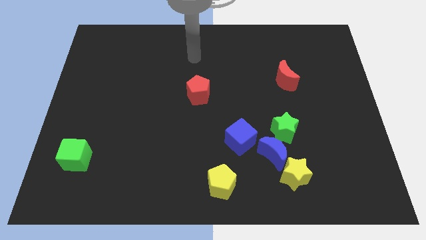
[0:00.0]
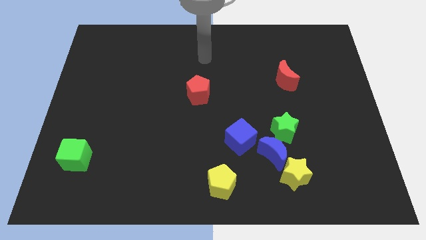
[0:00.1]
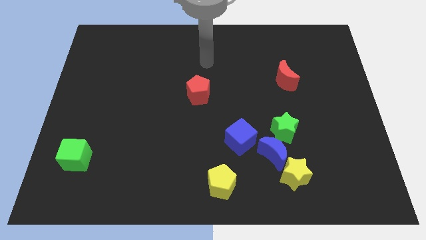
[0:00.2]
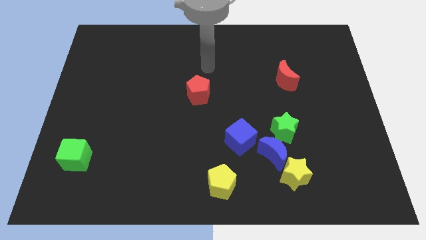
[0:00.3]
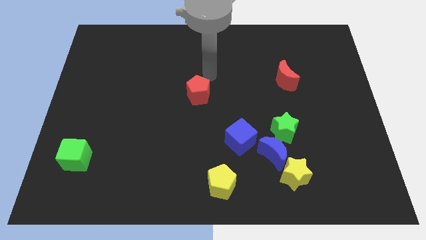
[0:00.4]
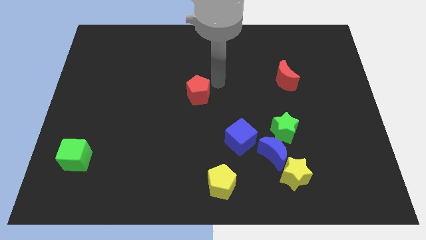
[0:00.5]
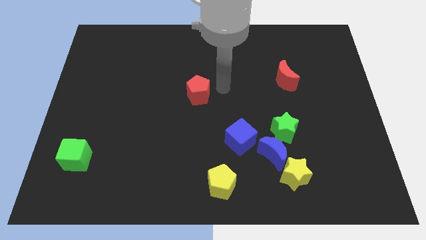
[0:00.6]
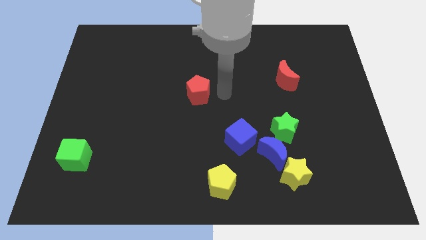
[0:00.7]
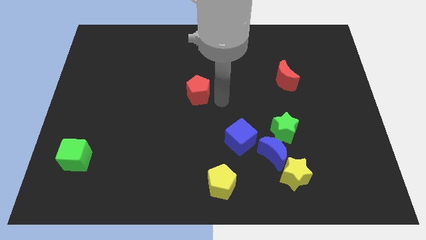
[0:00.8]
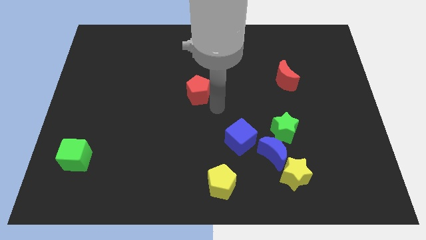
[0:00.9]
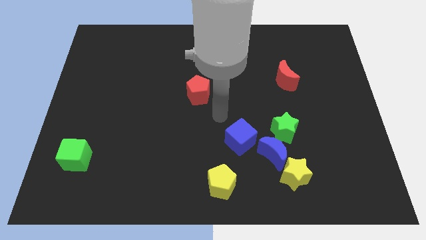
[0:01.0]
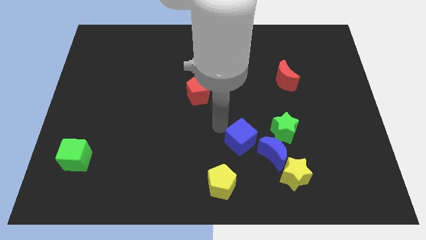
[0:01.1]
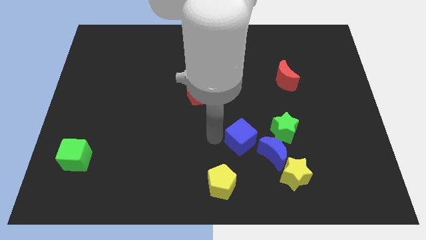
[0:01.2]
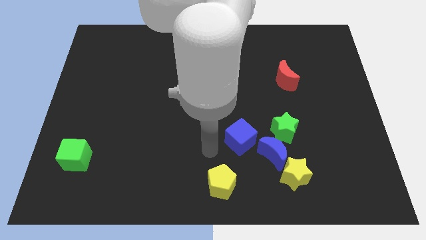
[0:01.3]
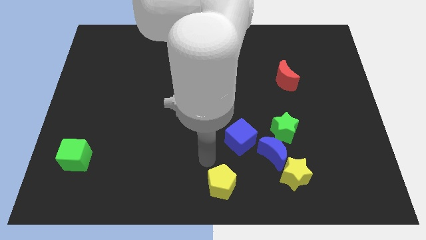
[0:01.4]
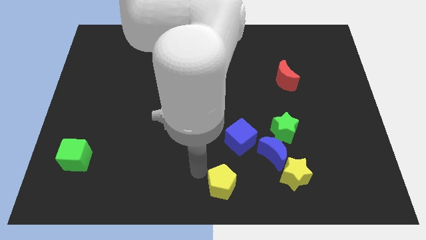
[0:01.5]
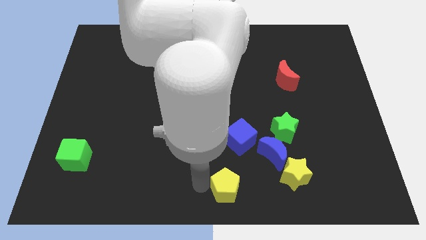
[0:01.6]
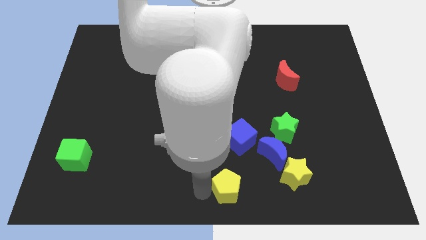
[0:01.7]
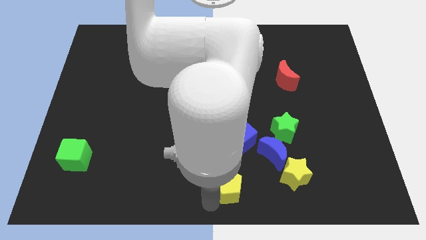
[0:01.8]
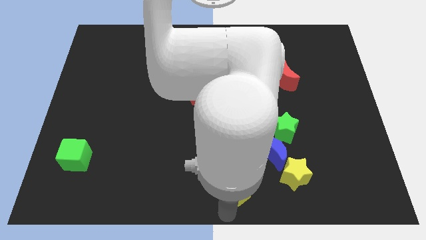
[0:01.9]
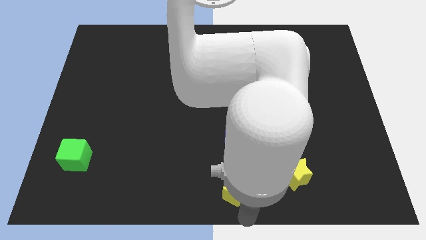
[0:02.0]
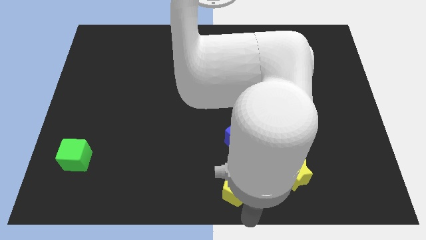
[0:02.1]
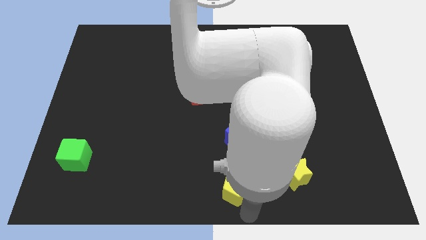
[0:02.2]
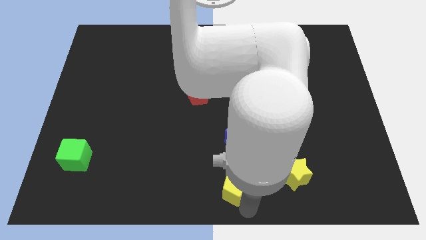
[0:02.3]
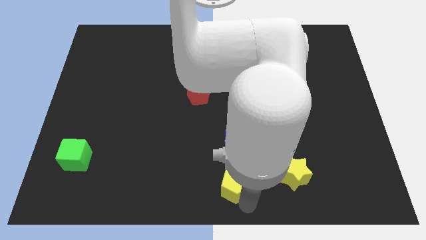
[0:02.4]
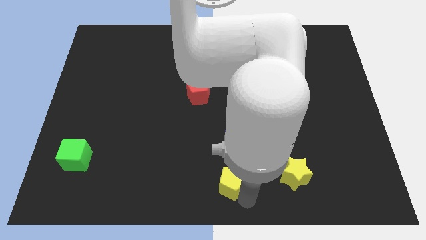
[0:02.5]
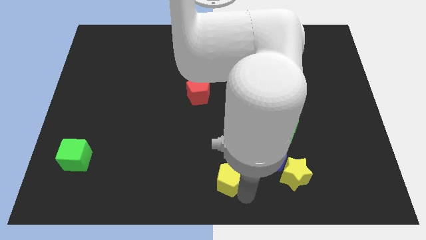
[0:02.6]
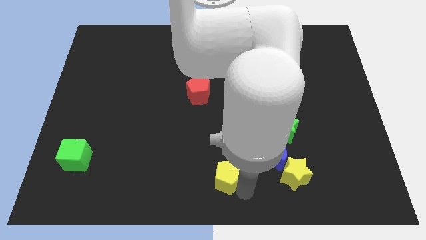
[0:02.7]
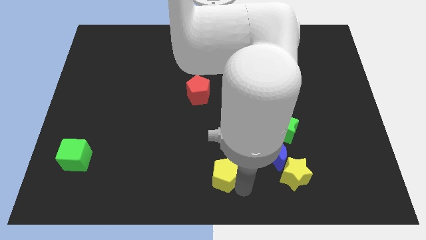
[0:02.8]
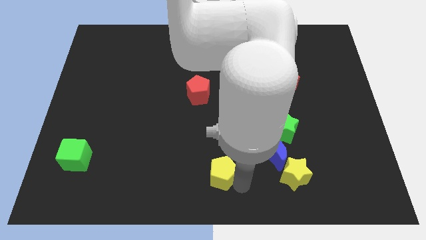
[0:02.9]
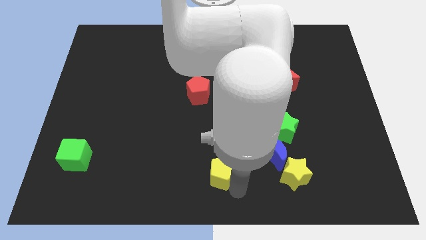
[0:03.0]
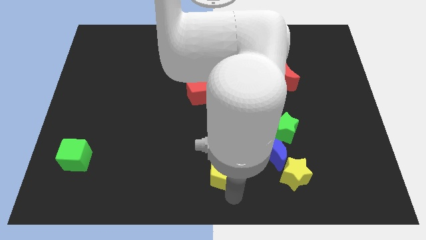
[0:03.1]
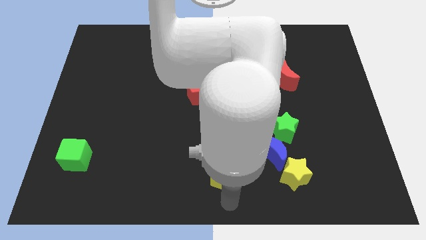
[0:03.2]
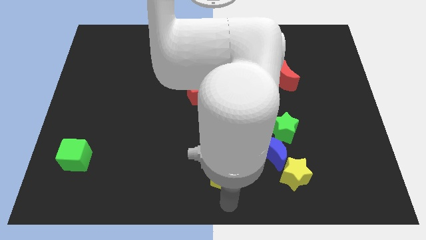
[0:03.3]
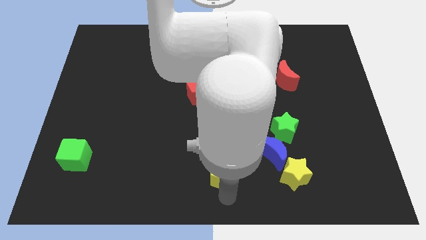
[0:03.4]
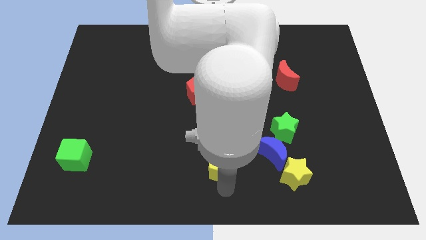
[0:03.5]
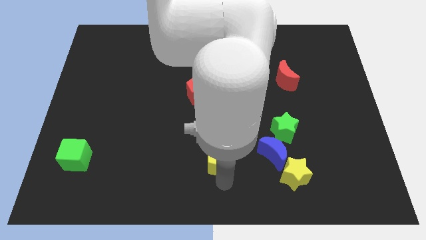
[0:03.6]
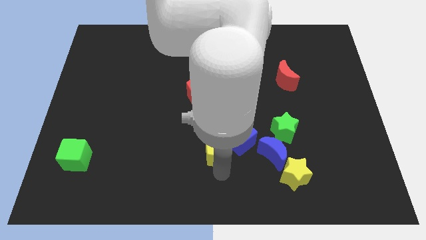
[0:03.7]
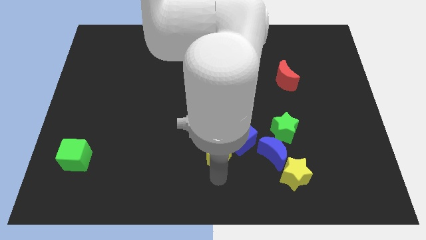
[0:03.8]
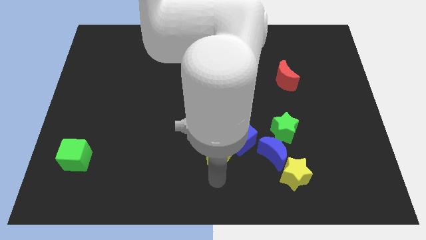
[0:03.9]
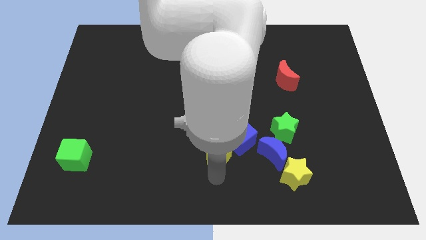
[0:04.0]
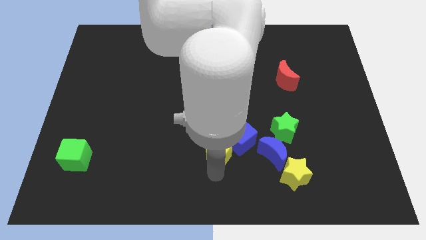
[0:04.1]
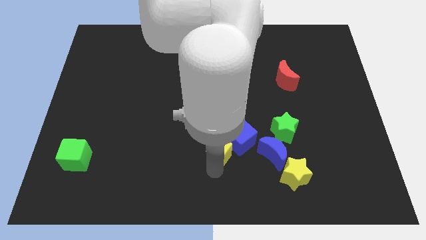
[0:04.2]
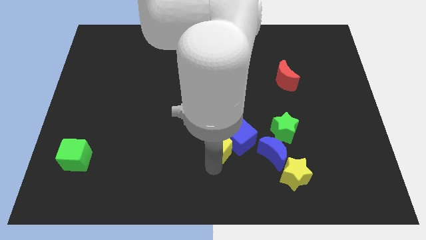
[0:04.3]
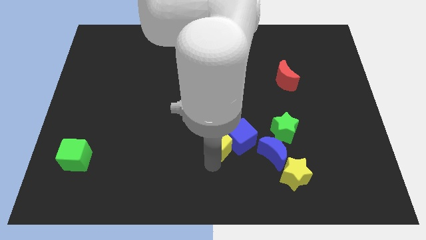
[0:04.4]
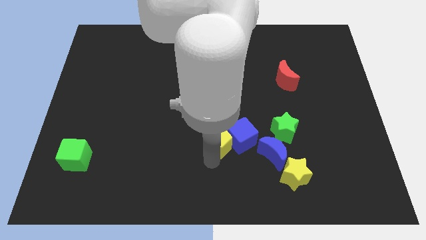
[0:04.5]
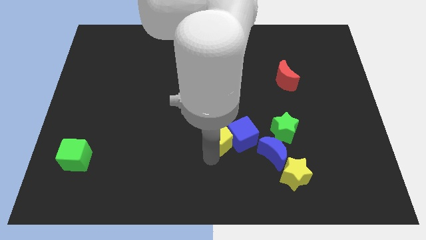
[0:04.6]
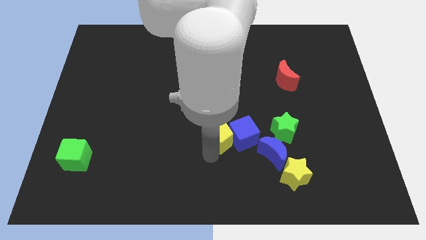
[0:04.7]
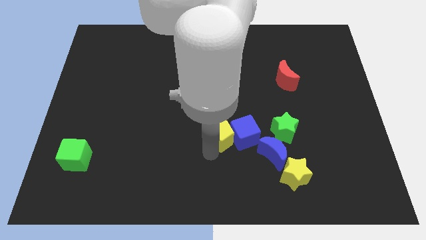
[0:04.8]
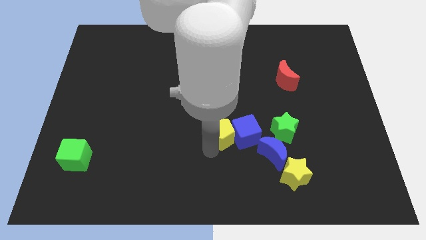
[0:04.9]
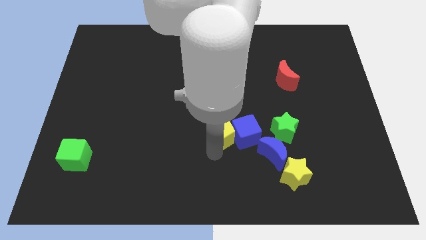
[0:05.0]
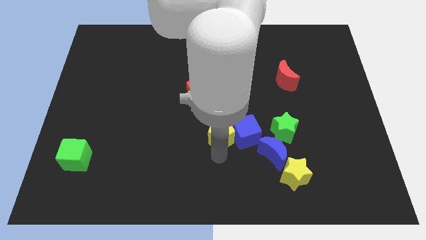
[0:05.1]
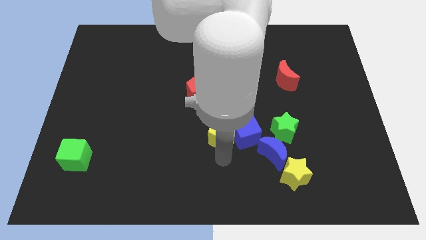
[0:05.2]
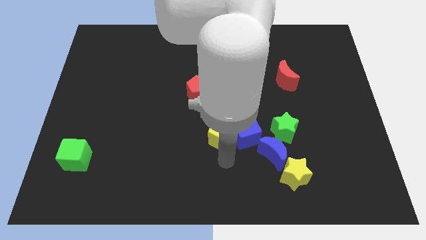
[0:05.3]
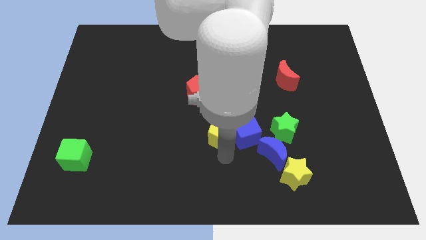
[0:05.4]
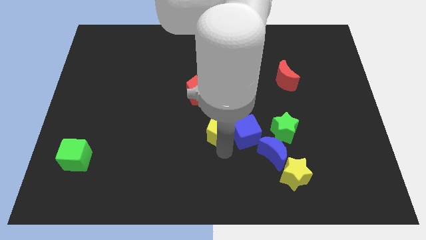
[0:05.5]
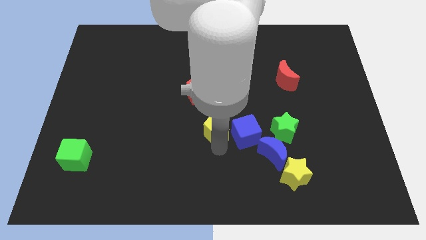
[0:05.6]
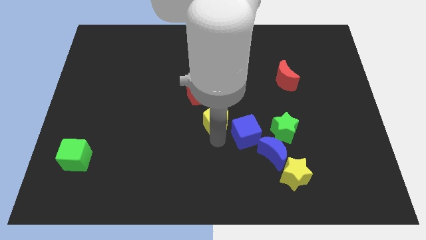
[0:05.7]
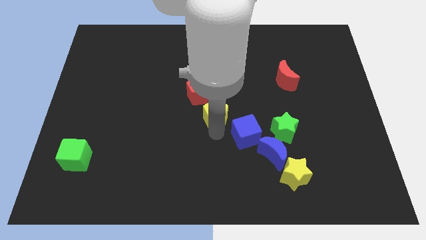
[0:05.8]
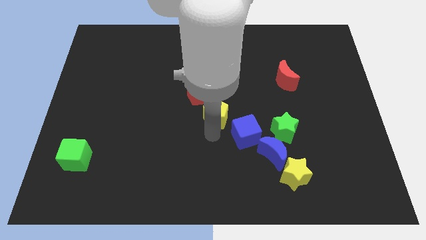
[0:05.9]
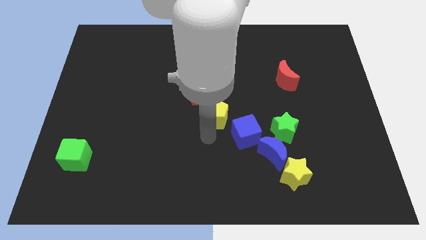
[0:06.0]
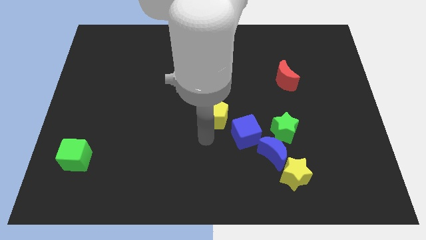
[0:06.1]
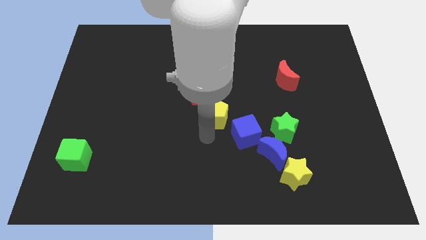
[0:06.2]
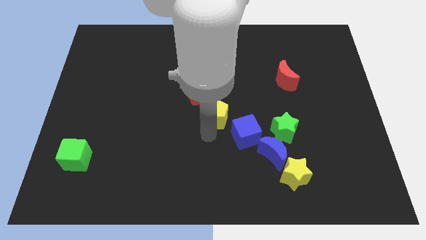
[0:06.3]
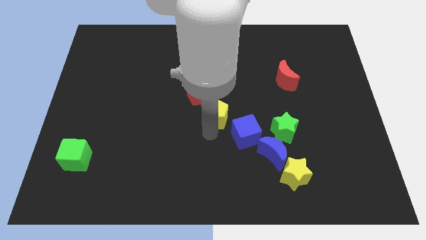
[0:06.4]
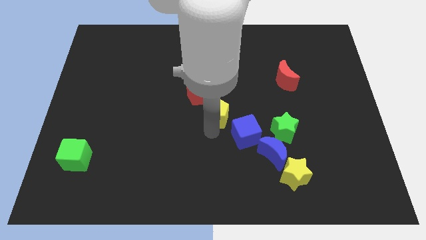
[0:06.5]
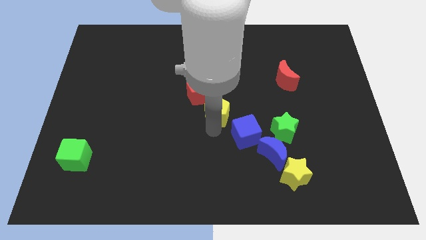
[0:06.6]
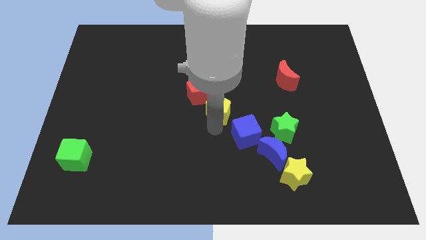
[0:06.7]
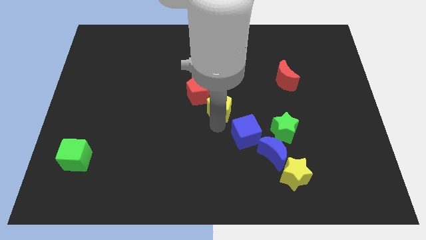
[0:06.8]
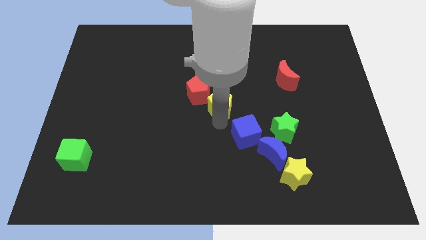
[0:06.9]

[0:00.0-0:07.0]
push the yellow pentagon upwards

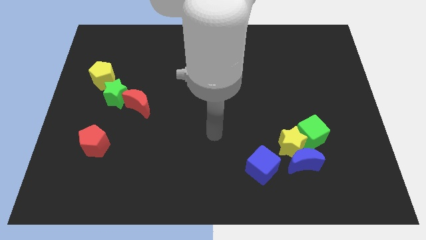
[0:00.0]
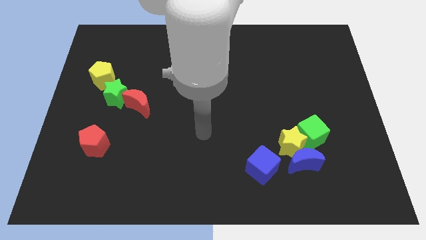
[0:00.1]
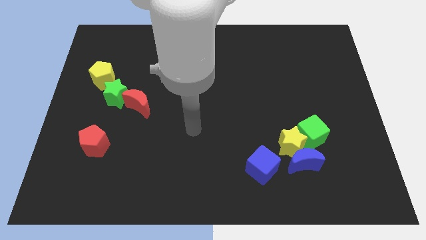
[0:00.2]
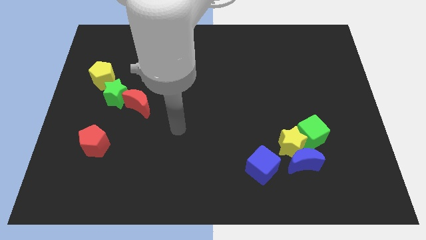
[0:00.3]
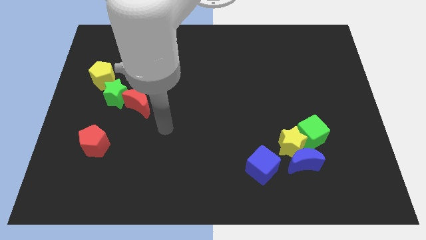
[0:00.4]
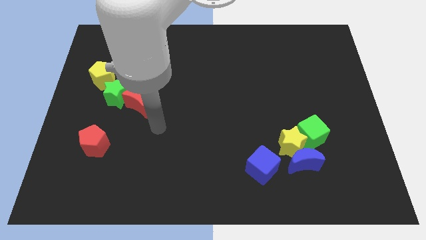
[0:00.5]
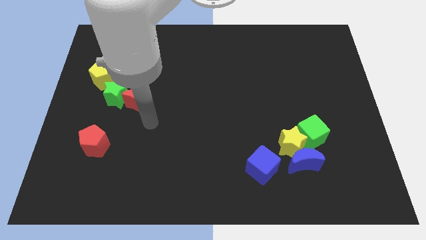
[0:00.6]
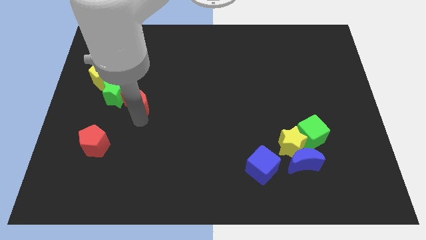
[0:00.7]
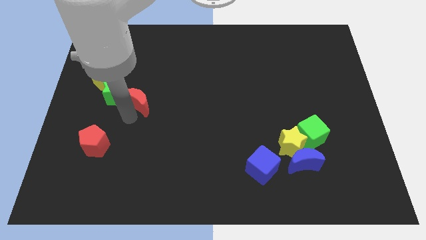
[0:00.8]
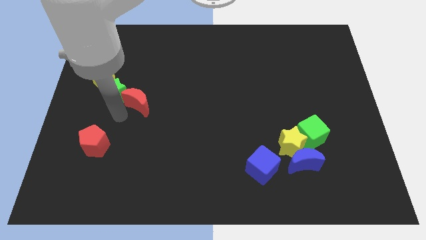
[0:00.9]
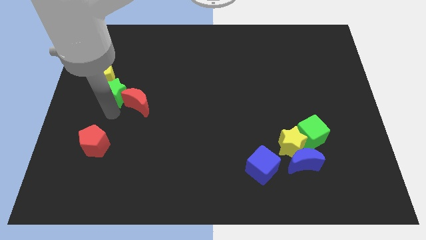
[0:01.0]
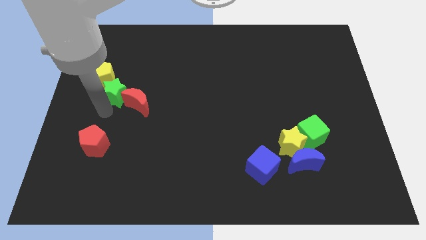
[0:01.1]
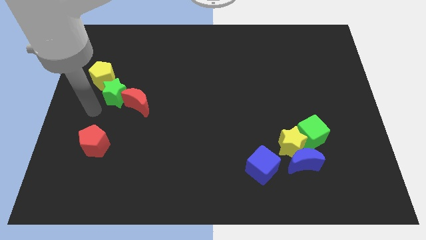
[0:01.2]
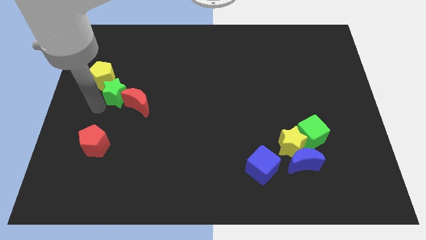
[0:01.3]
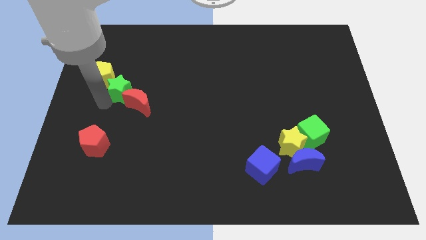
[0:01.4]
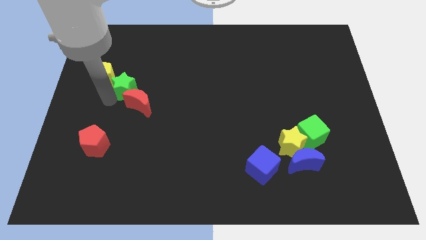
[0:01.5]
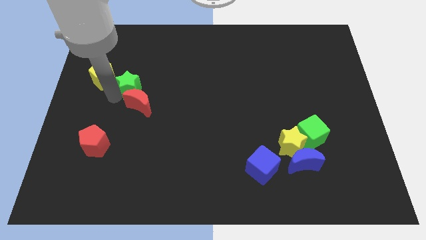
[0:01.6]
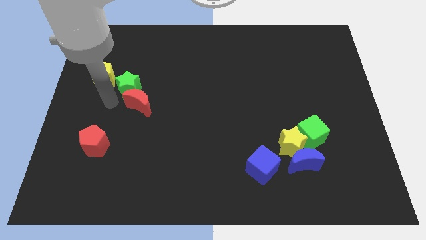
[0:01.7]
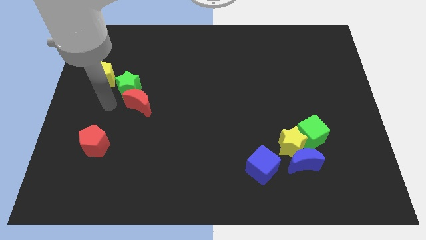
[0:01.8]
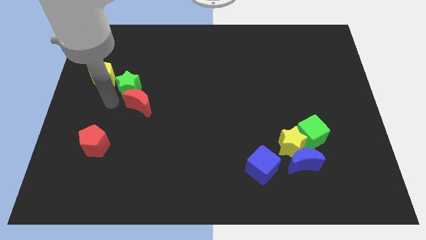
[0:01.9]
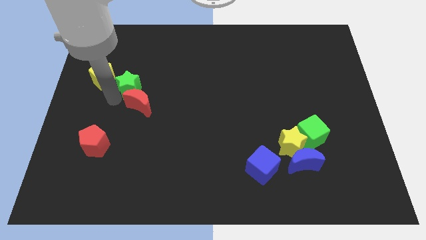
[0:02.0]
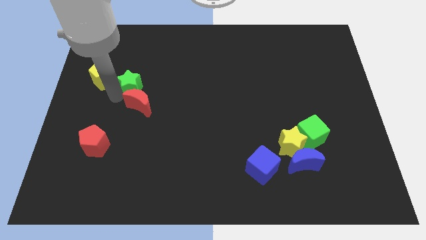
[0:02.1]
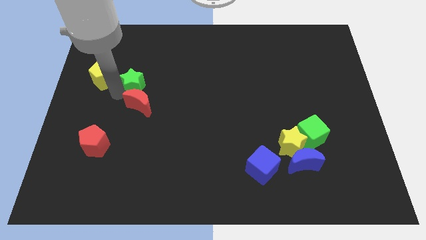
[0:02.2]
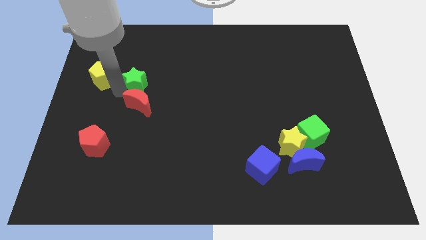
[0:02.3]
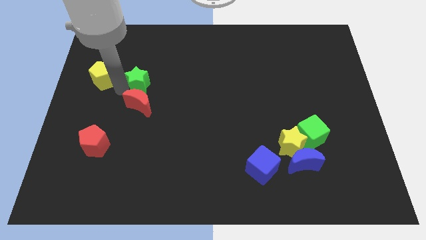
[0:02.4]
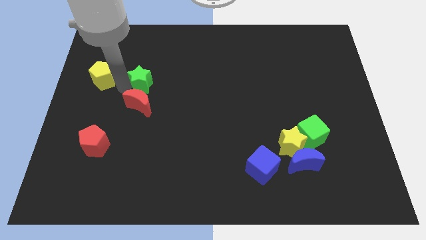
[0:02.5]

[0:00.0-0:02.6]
slightly slide the green star up and to the right
